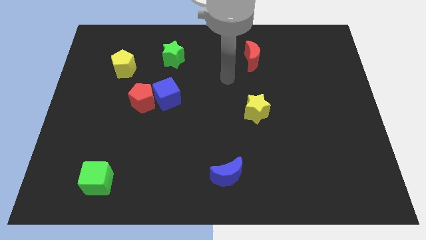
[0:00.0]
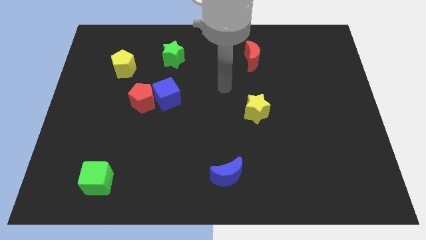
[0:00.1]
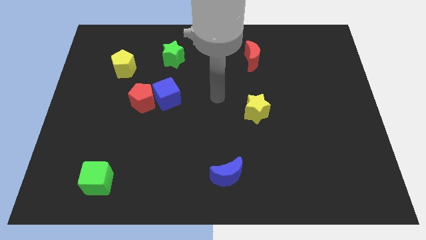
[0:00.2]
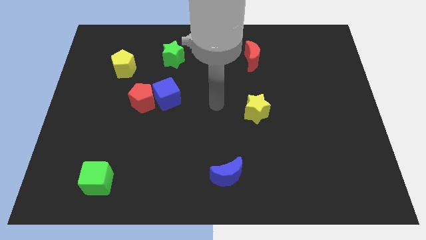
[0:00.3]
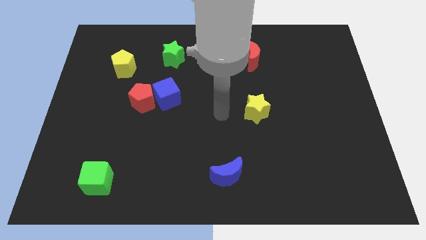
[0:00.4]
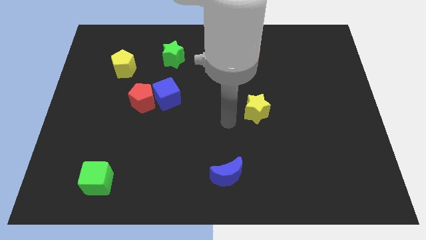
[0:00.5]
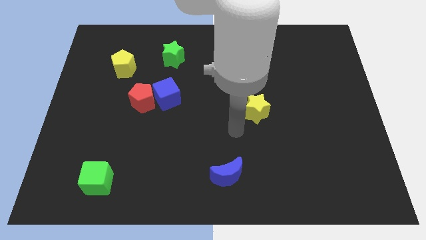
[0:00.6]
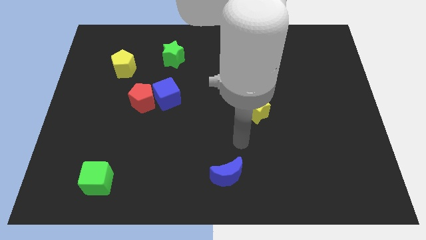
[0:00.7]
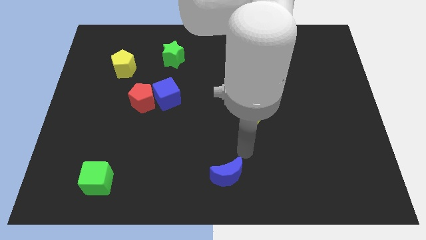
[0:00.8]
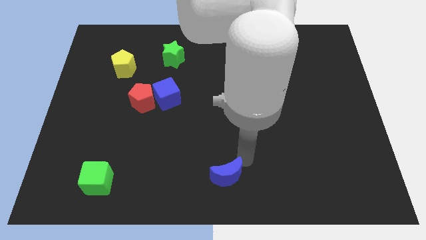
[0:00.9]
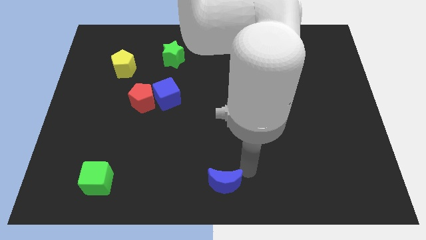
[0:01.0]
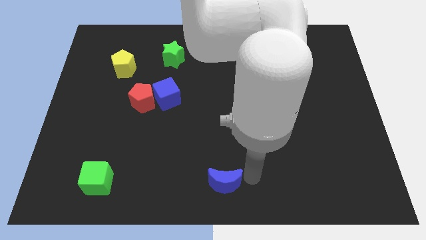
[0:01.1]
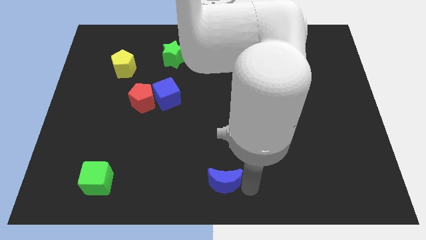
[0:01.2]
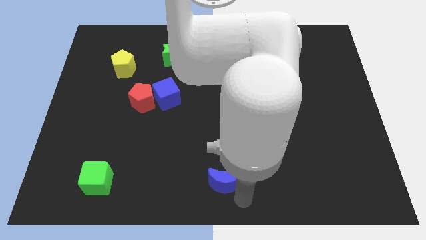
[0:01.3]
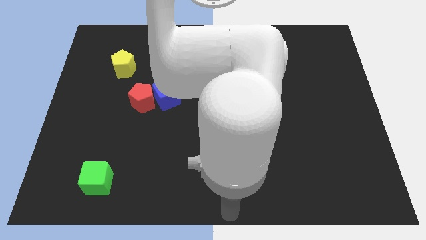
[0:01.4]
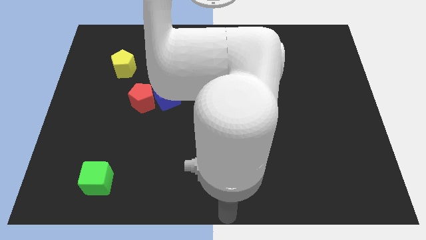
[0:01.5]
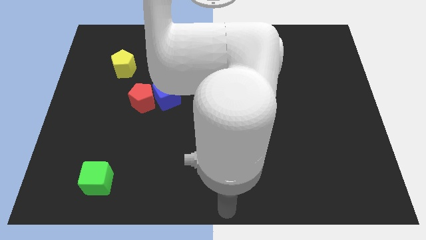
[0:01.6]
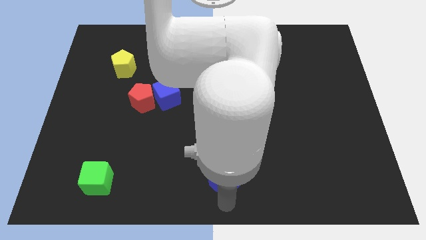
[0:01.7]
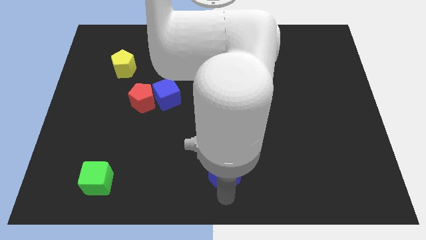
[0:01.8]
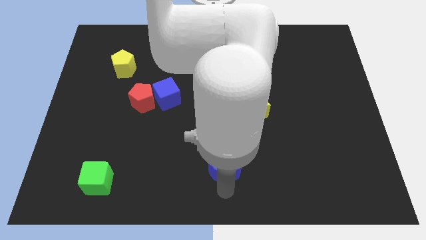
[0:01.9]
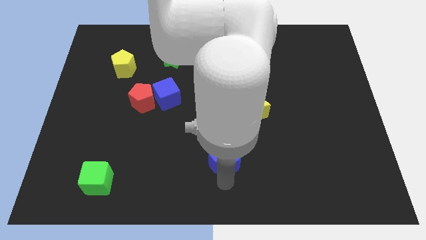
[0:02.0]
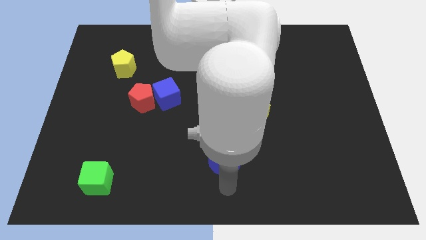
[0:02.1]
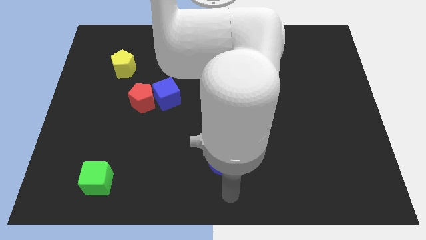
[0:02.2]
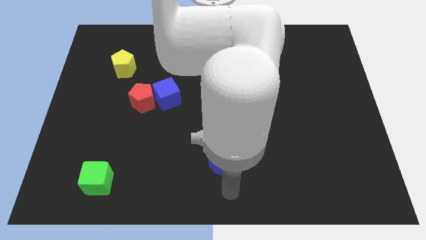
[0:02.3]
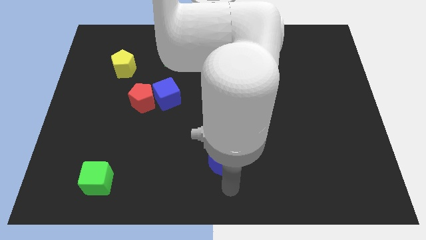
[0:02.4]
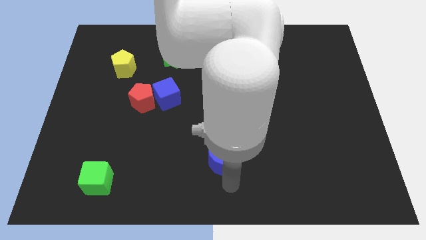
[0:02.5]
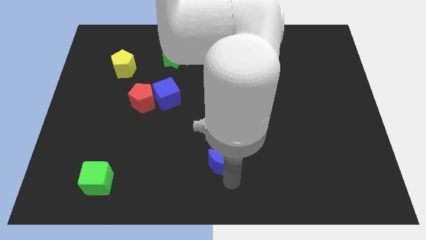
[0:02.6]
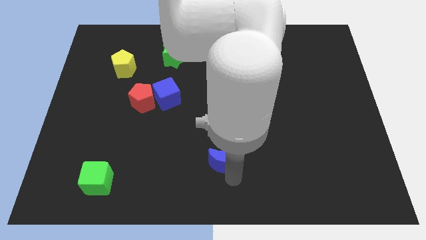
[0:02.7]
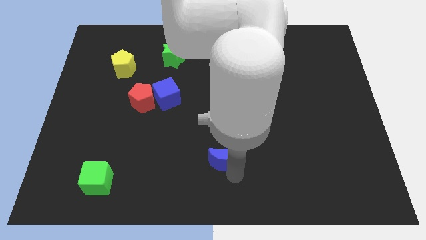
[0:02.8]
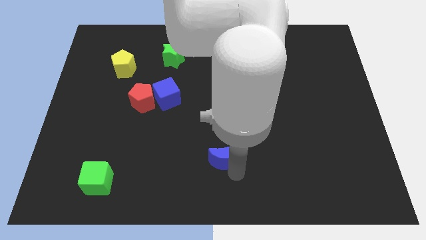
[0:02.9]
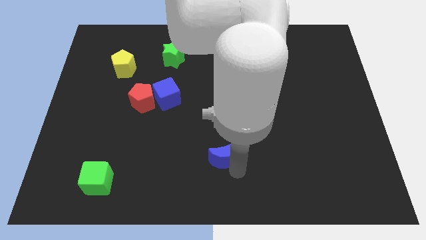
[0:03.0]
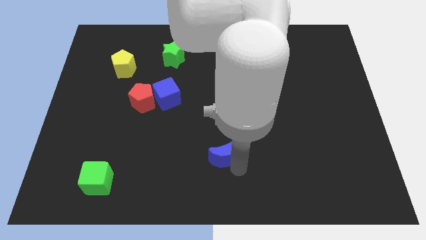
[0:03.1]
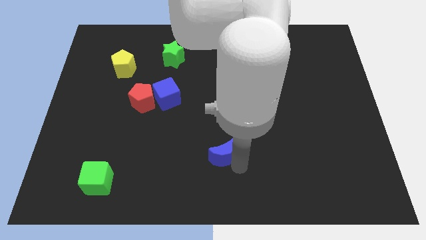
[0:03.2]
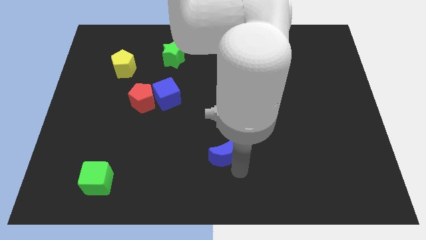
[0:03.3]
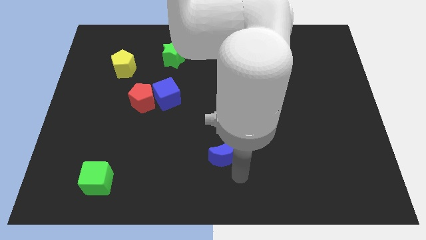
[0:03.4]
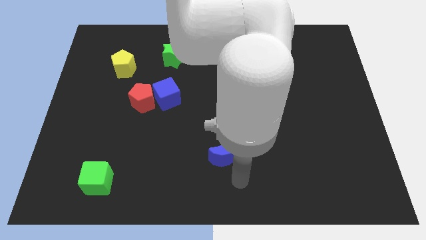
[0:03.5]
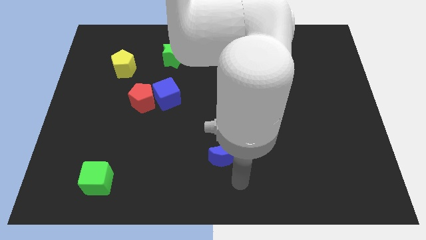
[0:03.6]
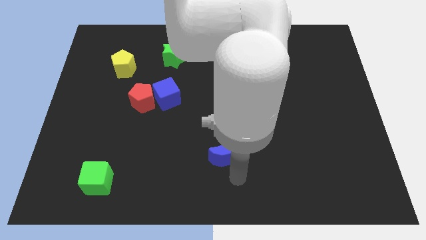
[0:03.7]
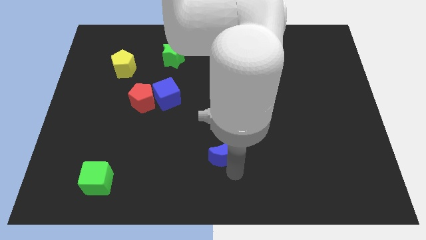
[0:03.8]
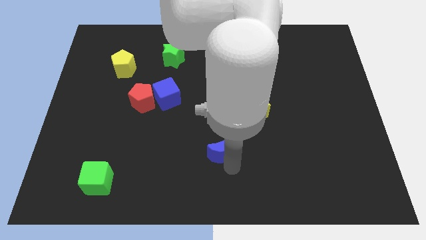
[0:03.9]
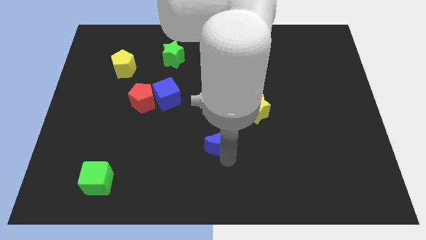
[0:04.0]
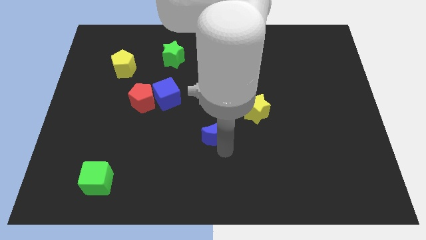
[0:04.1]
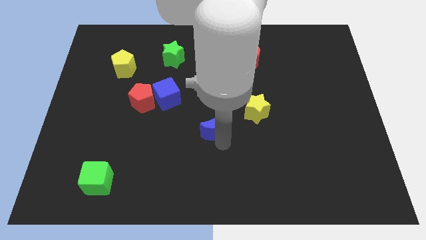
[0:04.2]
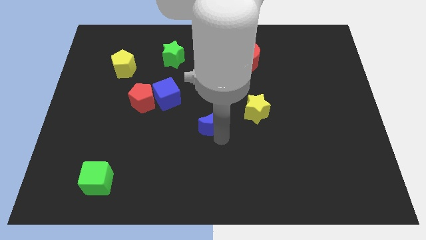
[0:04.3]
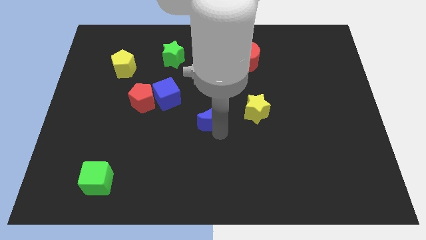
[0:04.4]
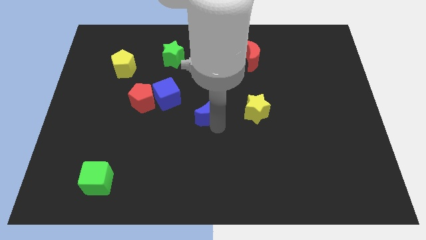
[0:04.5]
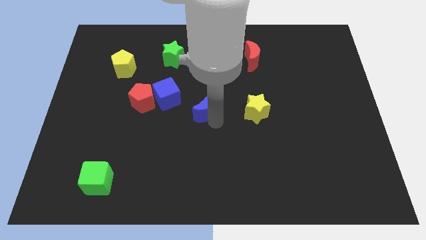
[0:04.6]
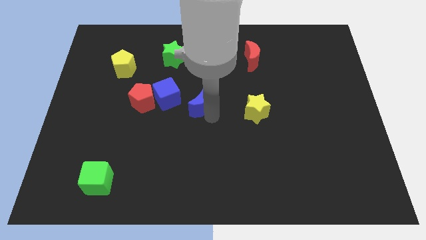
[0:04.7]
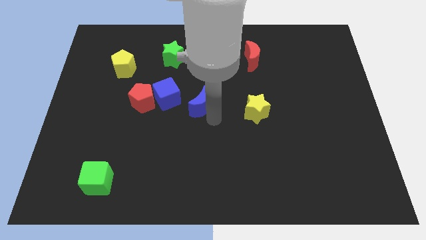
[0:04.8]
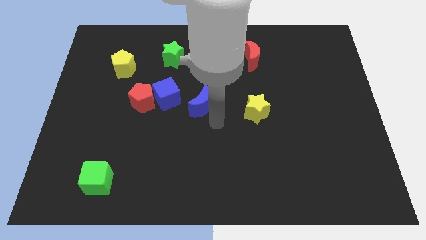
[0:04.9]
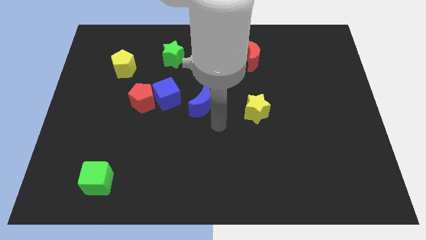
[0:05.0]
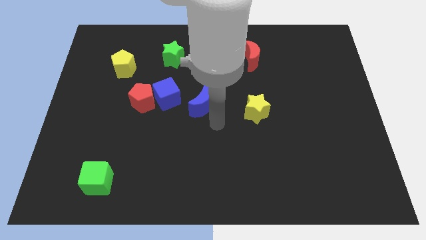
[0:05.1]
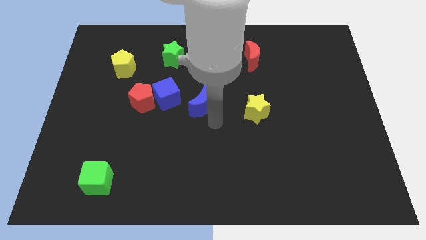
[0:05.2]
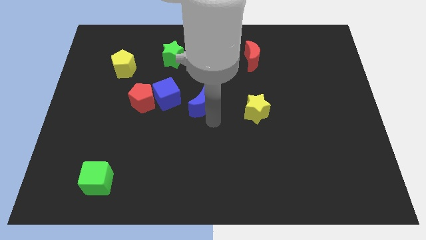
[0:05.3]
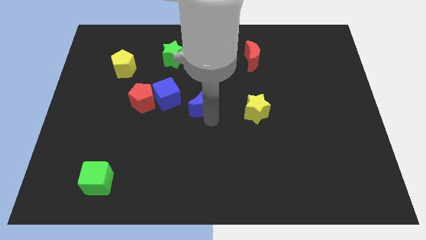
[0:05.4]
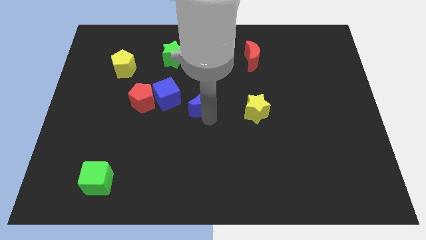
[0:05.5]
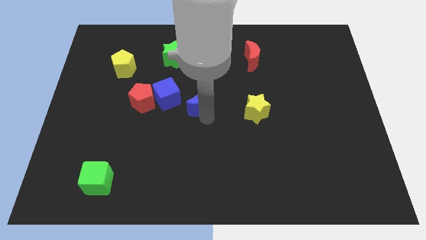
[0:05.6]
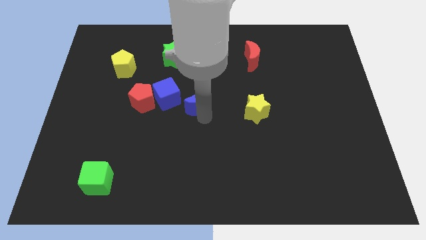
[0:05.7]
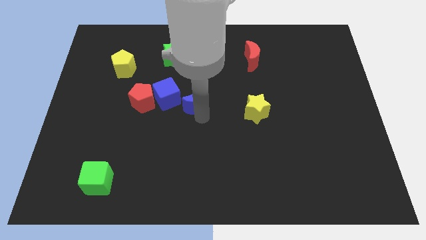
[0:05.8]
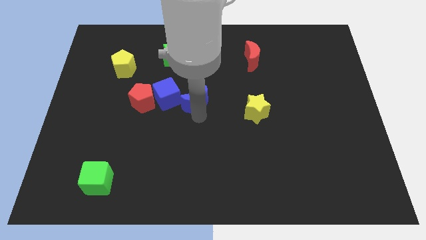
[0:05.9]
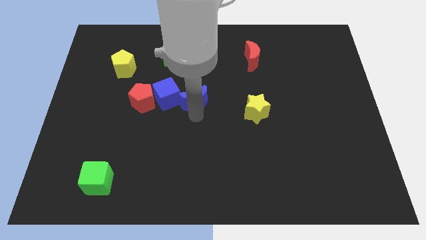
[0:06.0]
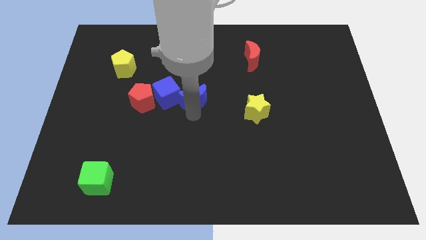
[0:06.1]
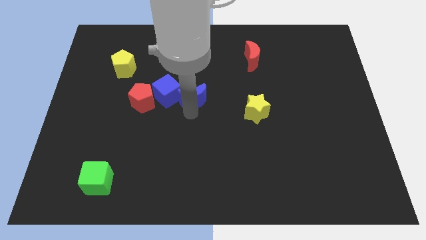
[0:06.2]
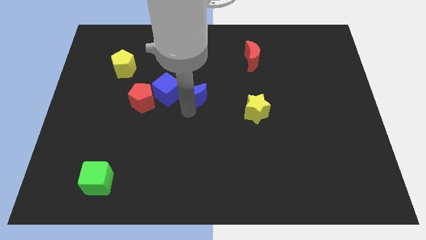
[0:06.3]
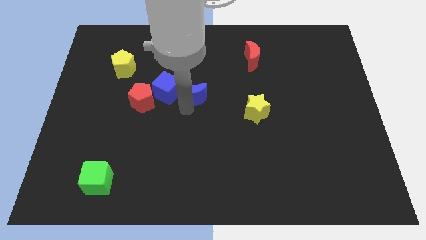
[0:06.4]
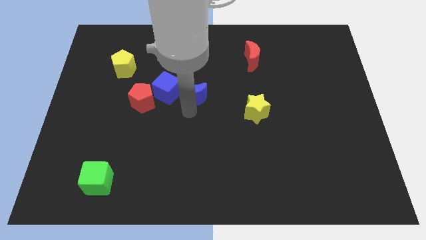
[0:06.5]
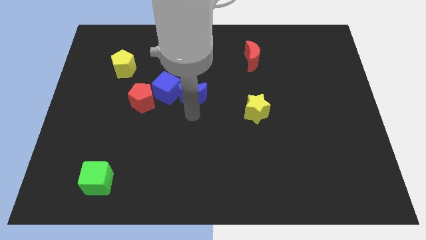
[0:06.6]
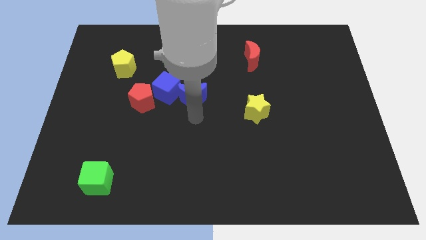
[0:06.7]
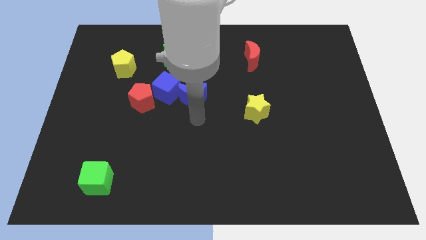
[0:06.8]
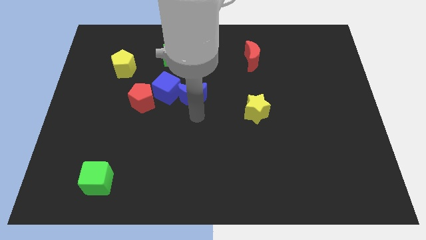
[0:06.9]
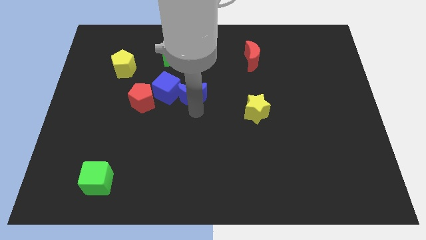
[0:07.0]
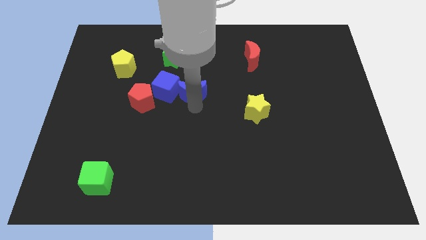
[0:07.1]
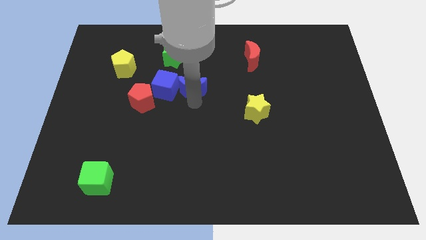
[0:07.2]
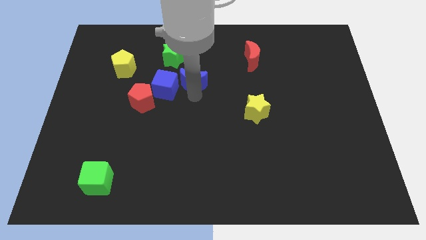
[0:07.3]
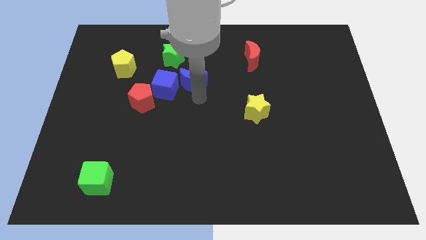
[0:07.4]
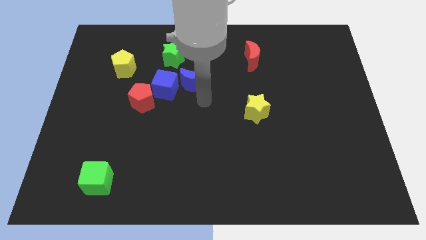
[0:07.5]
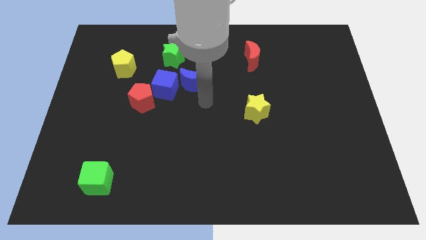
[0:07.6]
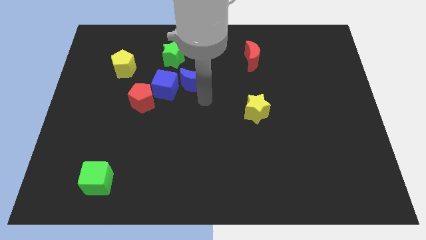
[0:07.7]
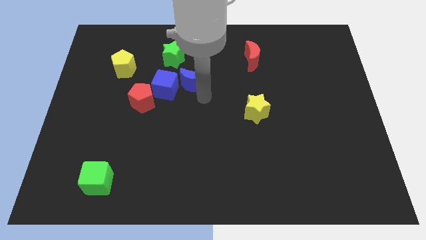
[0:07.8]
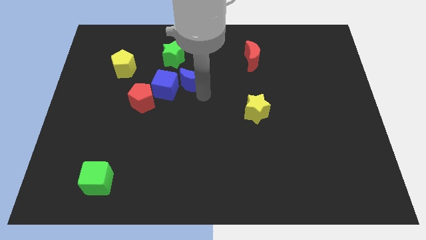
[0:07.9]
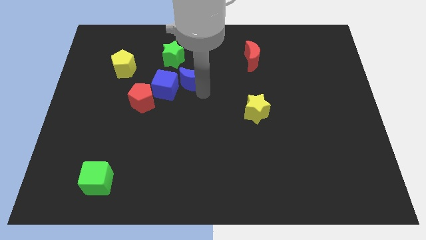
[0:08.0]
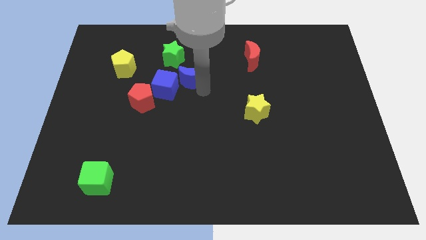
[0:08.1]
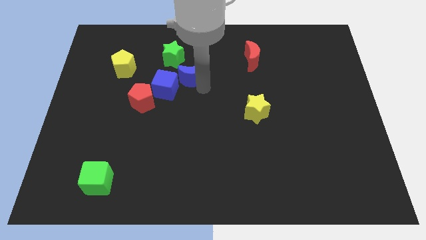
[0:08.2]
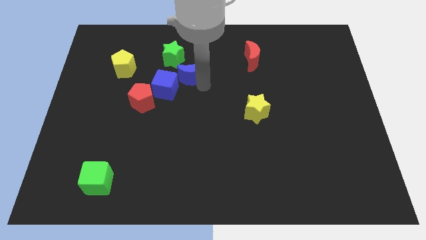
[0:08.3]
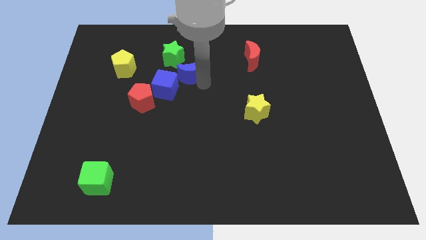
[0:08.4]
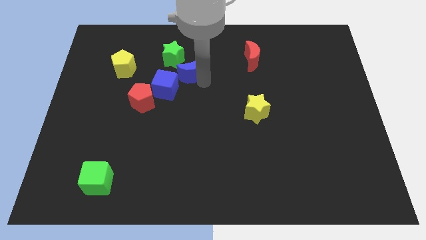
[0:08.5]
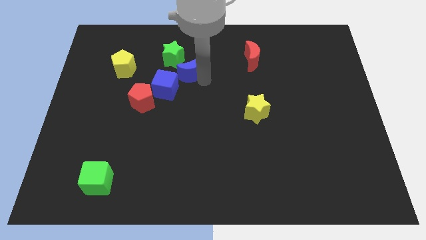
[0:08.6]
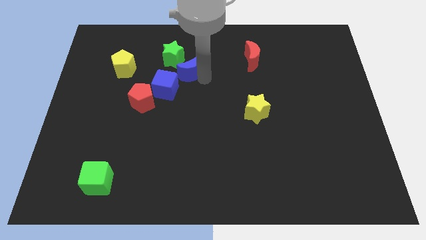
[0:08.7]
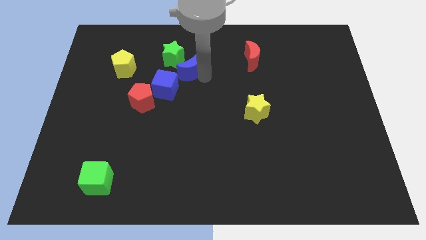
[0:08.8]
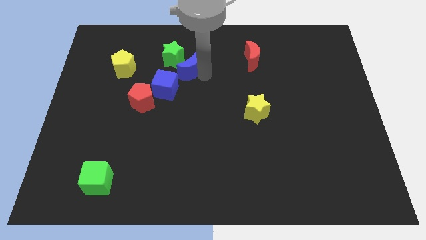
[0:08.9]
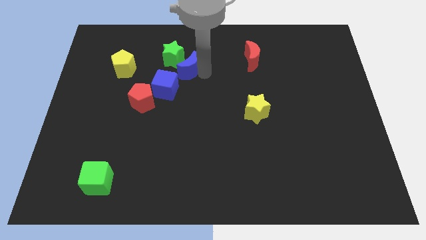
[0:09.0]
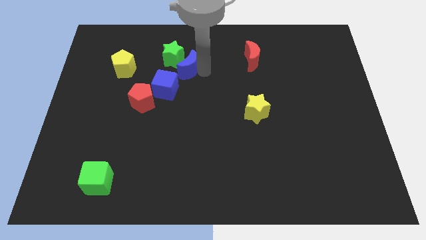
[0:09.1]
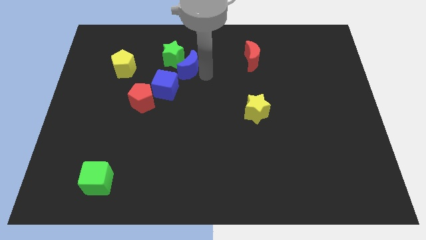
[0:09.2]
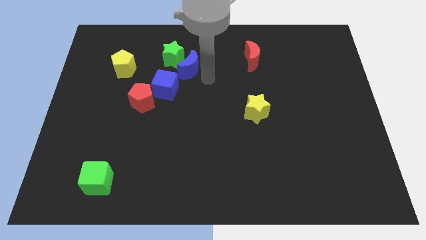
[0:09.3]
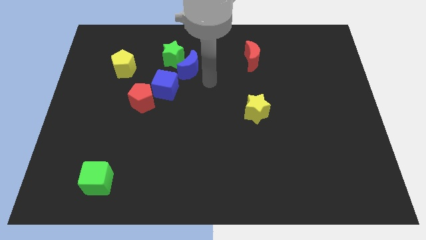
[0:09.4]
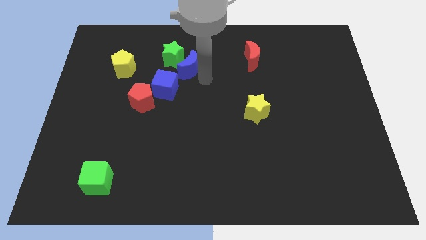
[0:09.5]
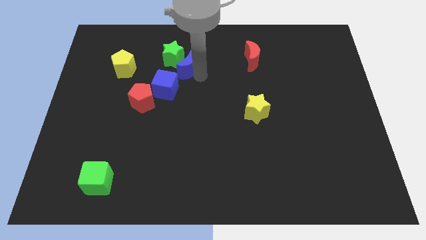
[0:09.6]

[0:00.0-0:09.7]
move the blue moon towards the green star
